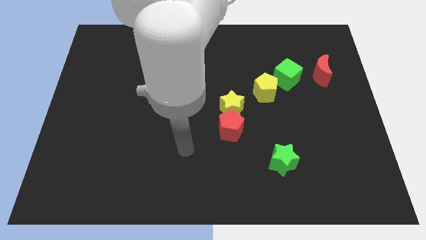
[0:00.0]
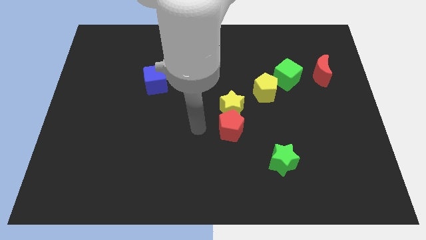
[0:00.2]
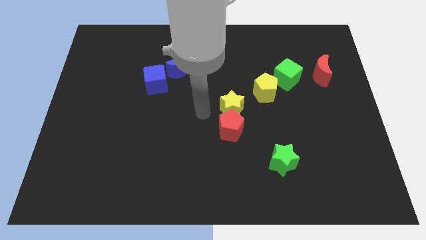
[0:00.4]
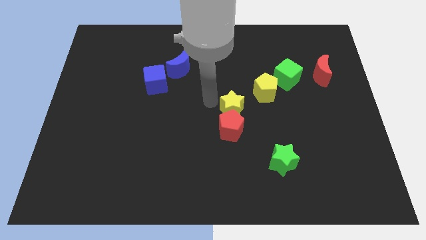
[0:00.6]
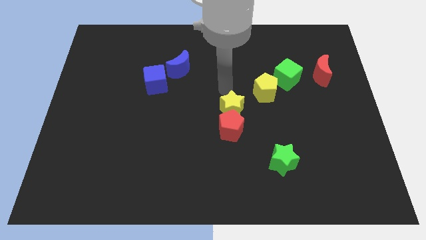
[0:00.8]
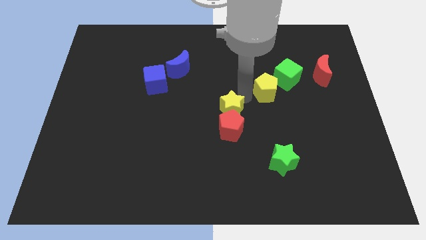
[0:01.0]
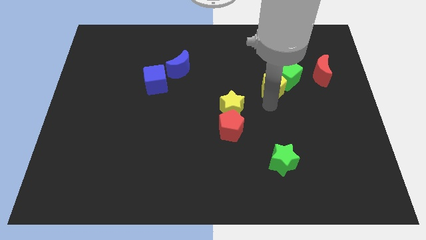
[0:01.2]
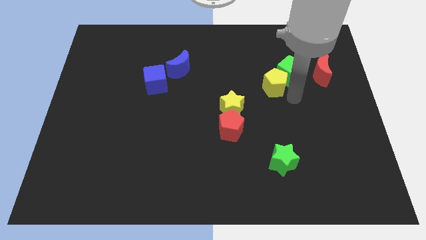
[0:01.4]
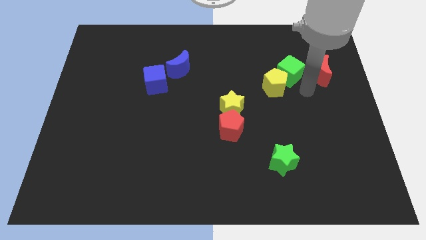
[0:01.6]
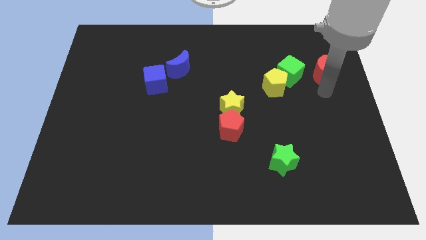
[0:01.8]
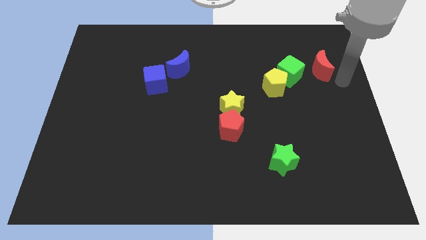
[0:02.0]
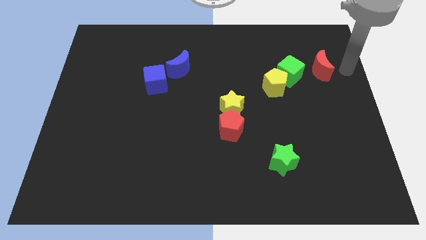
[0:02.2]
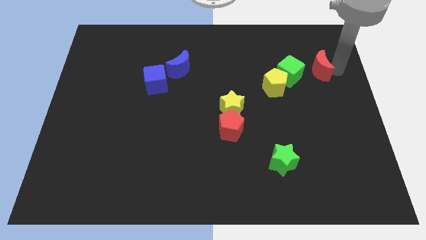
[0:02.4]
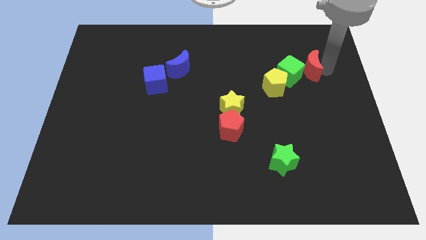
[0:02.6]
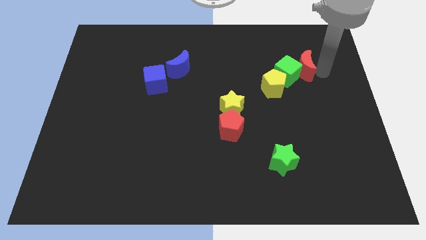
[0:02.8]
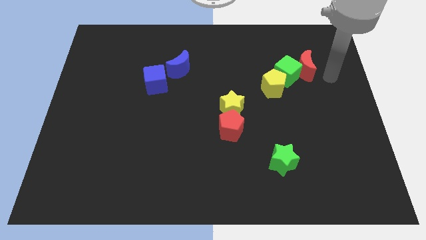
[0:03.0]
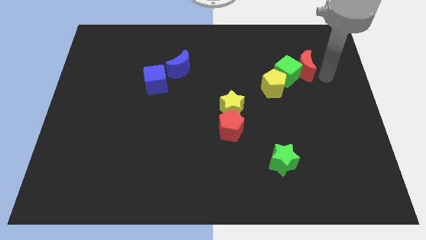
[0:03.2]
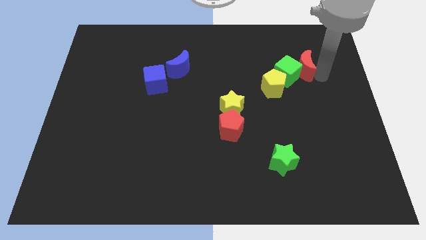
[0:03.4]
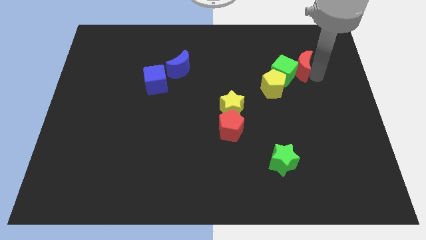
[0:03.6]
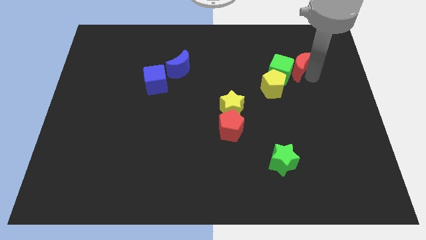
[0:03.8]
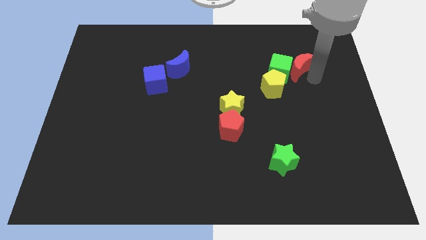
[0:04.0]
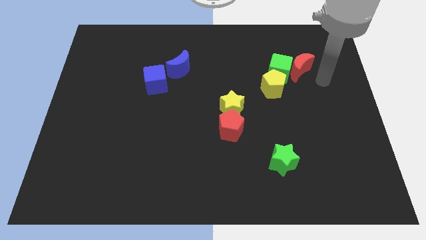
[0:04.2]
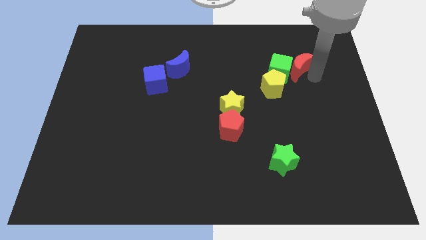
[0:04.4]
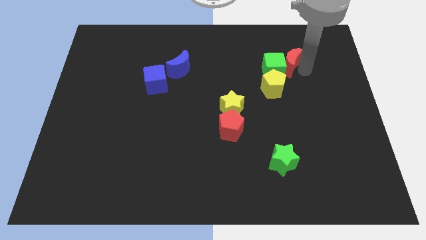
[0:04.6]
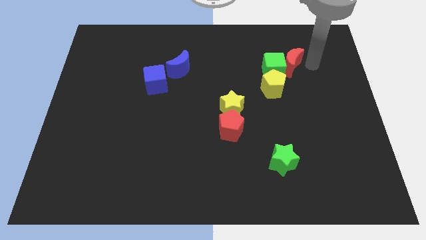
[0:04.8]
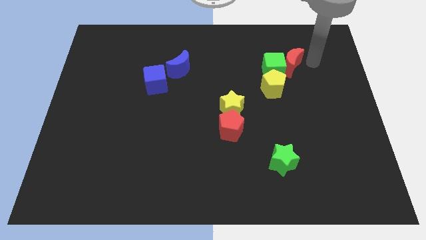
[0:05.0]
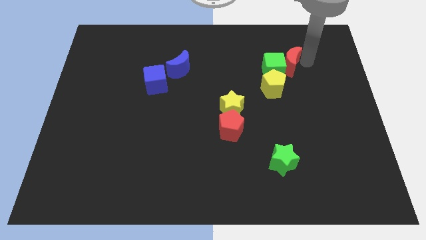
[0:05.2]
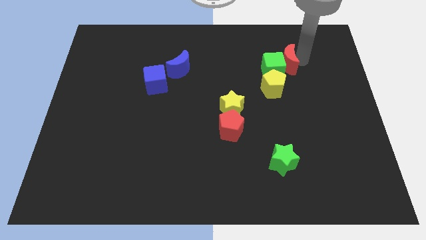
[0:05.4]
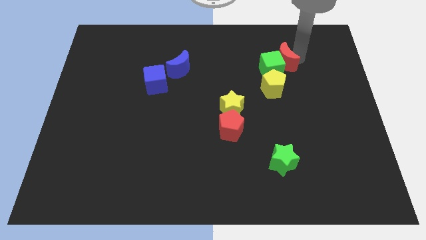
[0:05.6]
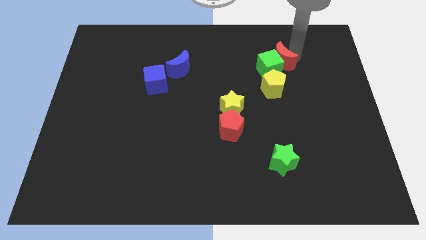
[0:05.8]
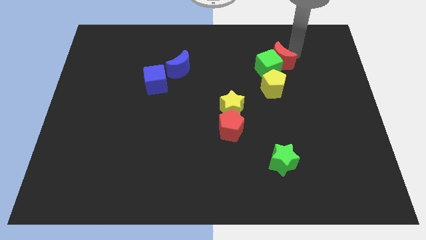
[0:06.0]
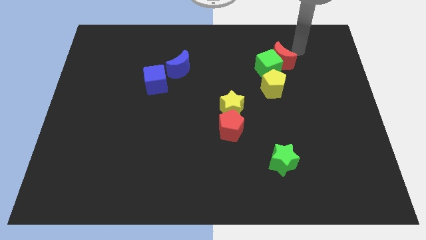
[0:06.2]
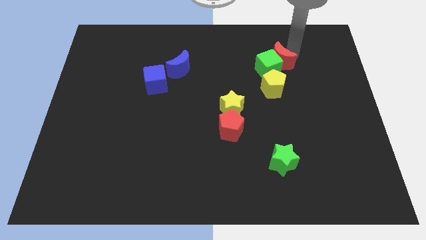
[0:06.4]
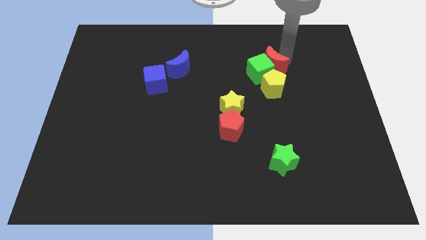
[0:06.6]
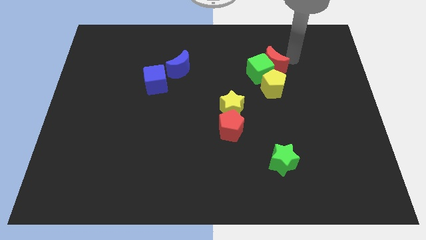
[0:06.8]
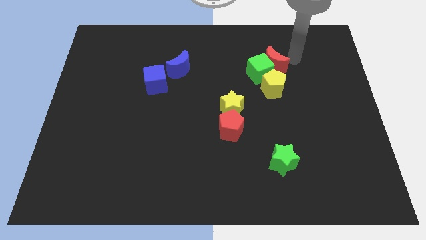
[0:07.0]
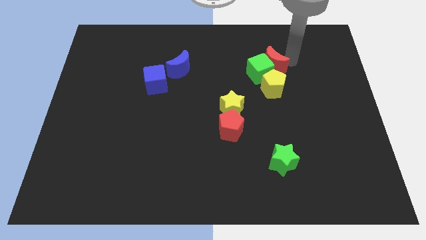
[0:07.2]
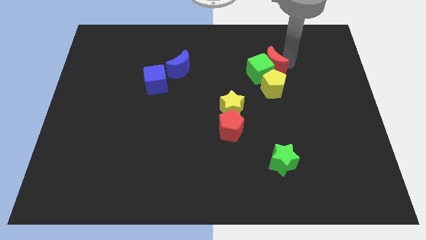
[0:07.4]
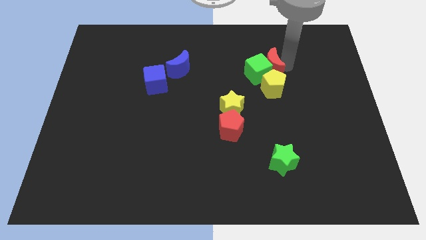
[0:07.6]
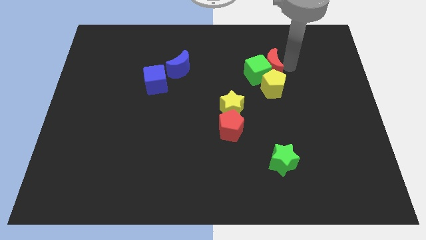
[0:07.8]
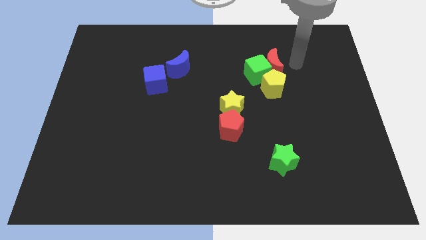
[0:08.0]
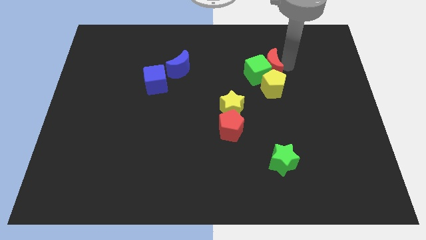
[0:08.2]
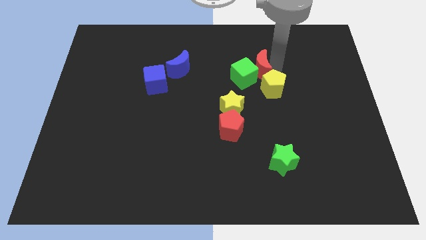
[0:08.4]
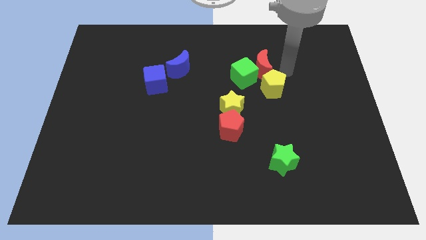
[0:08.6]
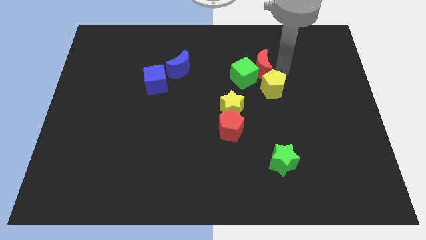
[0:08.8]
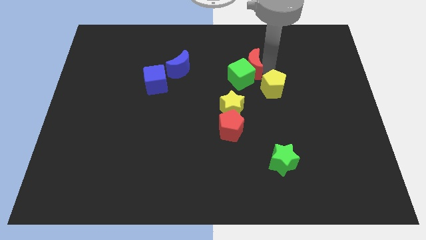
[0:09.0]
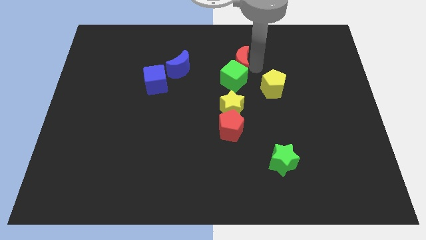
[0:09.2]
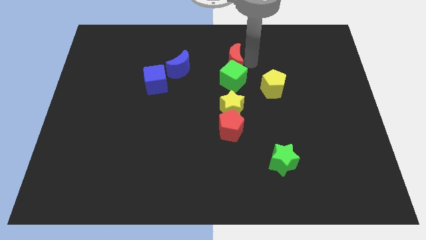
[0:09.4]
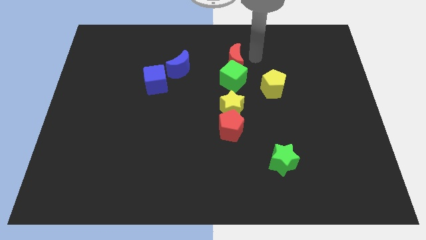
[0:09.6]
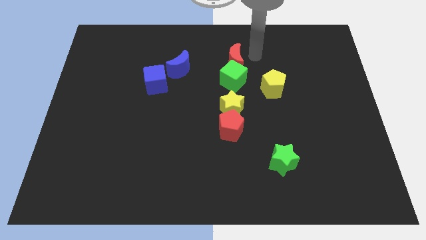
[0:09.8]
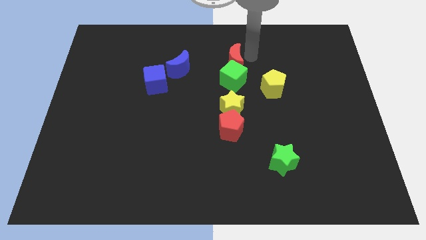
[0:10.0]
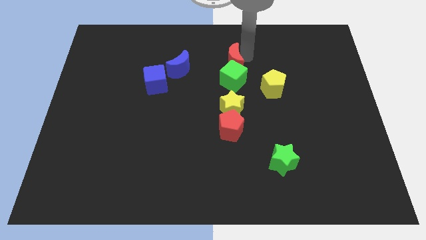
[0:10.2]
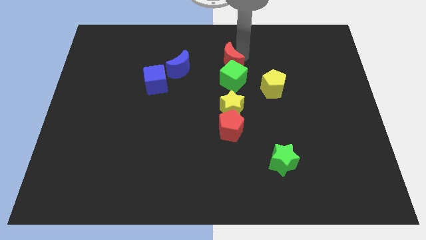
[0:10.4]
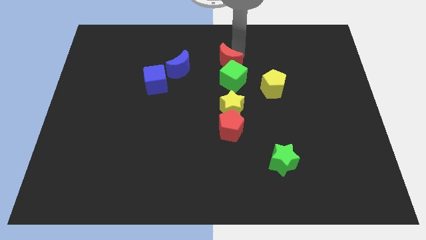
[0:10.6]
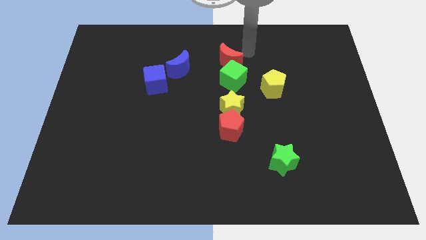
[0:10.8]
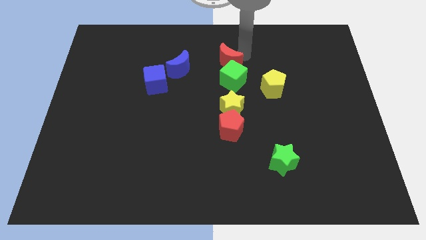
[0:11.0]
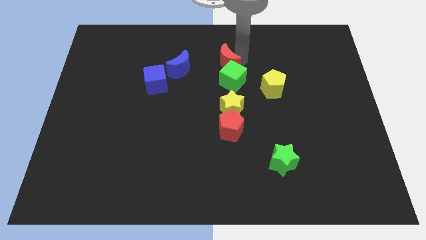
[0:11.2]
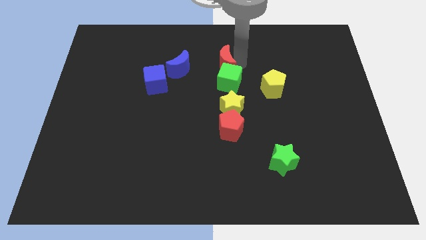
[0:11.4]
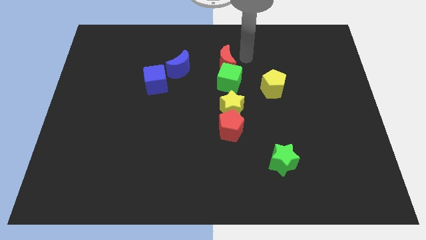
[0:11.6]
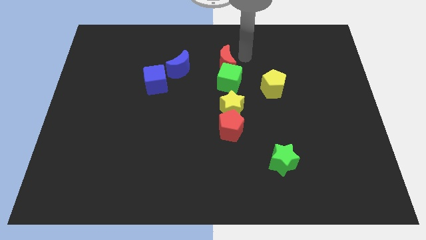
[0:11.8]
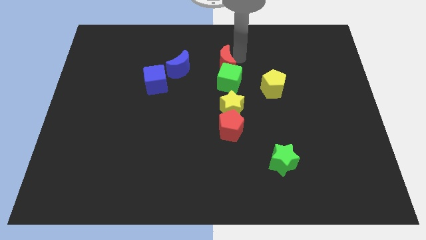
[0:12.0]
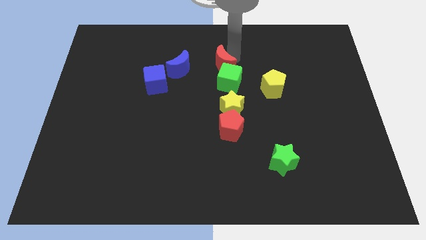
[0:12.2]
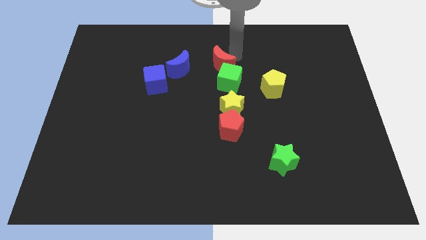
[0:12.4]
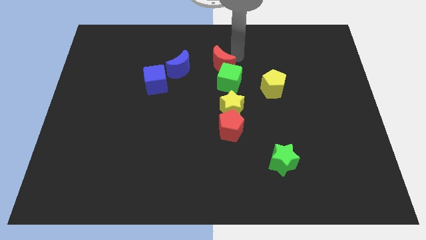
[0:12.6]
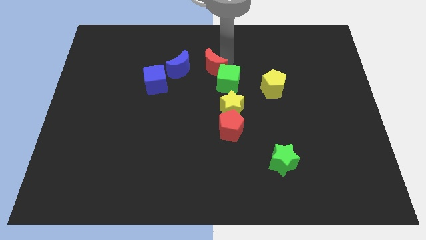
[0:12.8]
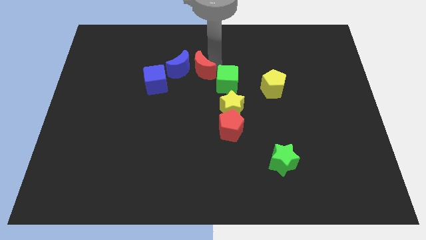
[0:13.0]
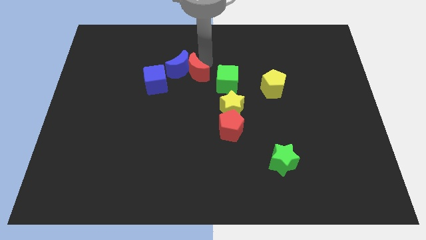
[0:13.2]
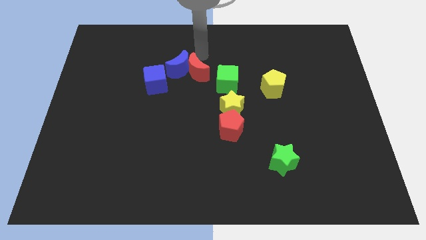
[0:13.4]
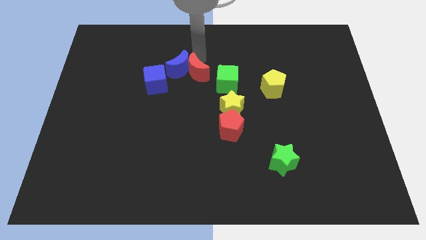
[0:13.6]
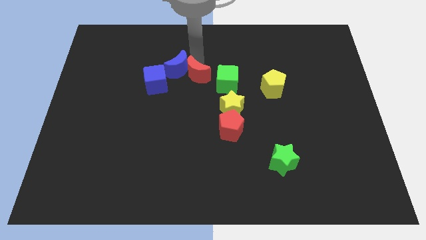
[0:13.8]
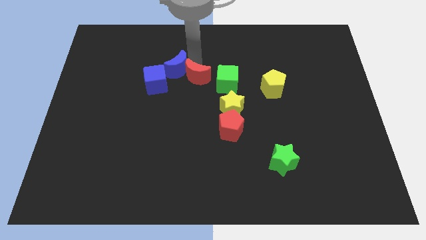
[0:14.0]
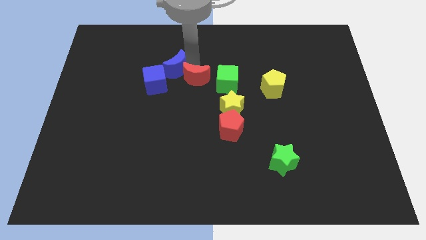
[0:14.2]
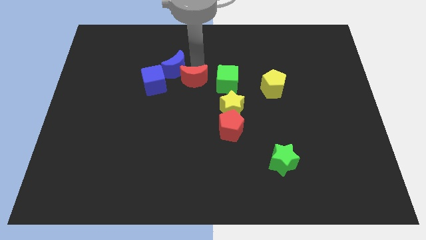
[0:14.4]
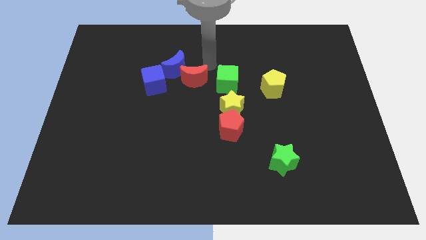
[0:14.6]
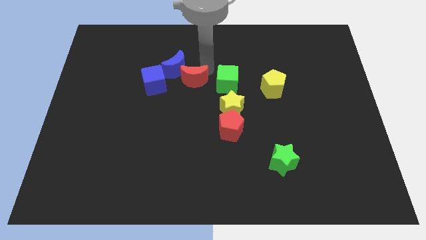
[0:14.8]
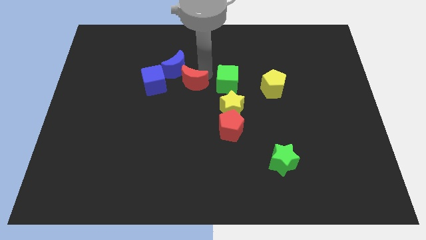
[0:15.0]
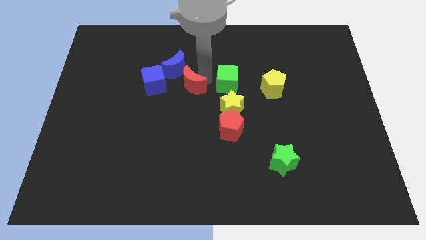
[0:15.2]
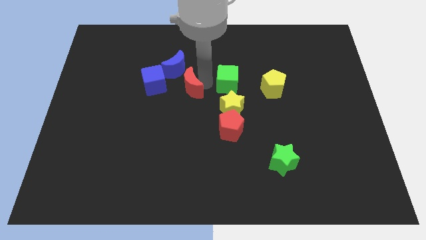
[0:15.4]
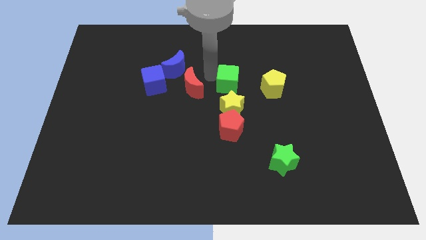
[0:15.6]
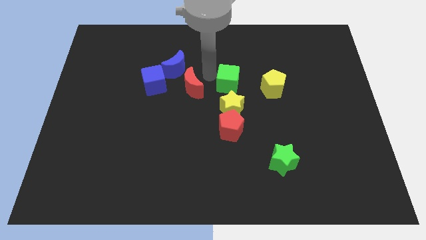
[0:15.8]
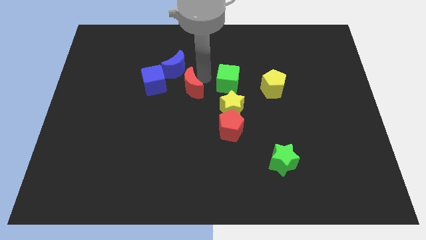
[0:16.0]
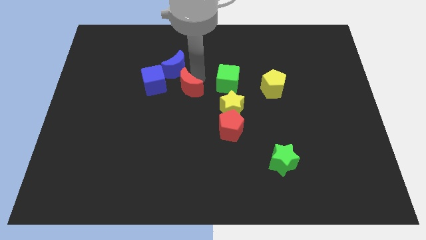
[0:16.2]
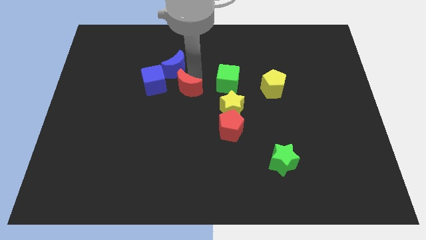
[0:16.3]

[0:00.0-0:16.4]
push the red moon to the bottom right of the blue cube
